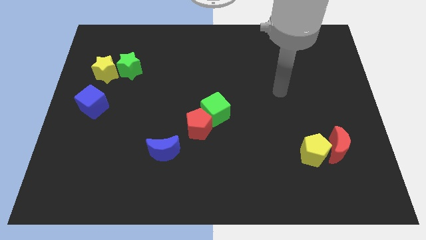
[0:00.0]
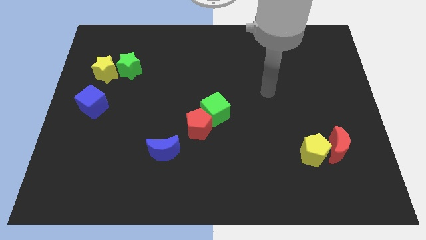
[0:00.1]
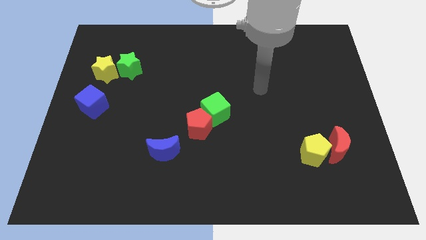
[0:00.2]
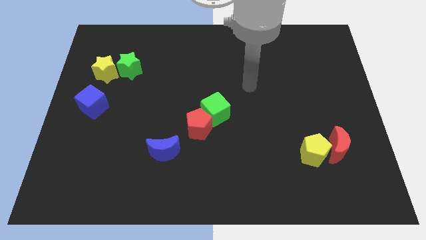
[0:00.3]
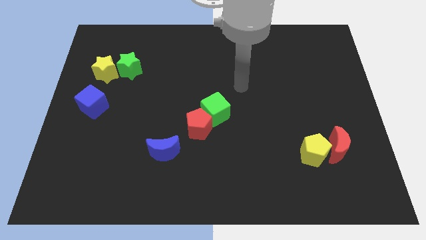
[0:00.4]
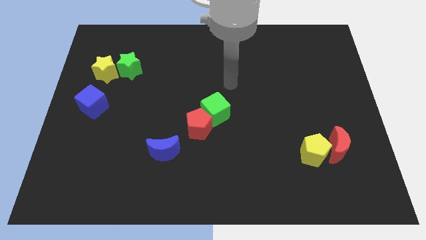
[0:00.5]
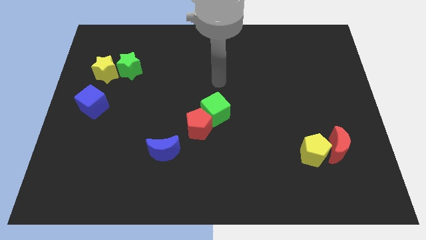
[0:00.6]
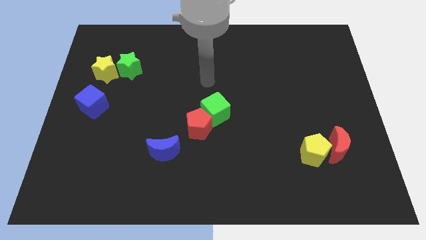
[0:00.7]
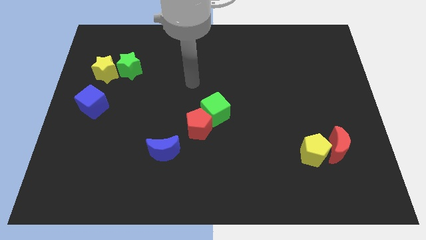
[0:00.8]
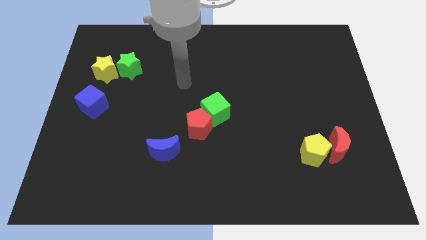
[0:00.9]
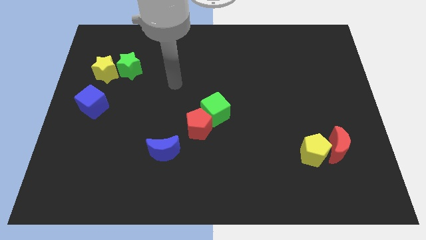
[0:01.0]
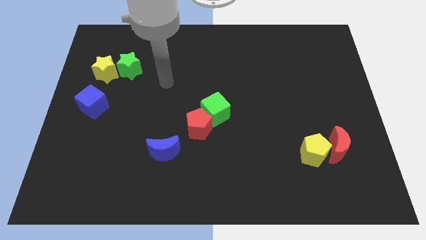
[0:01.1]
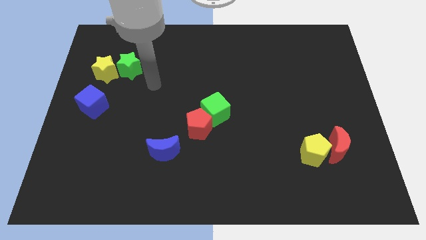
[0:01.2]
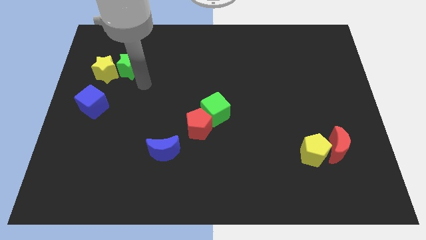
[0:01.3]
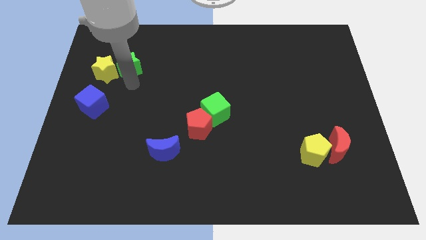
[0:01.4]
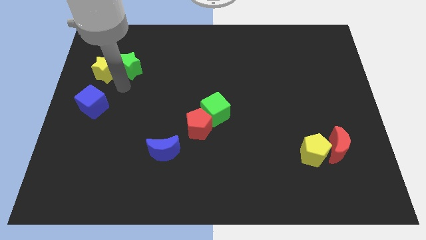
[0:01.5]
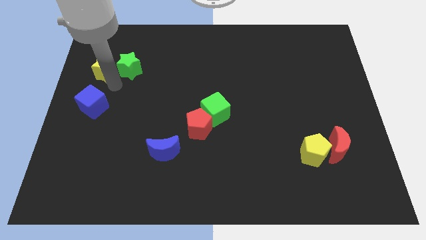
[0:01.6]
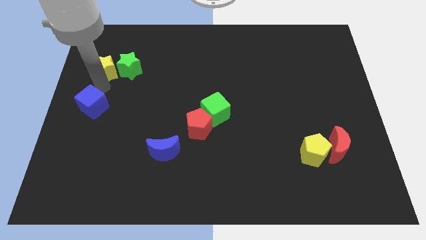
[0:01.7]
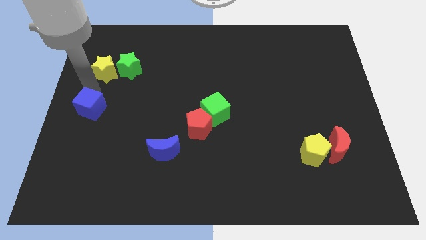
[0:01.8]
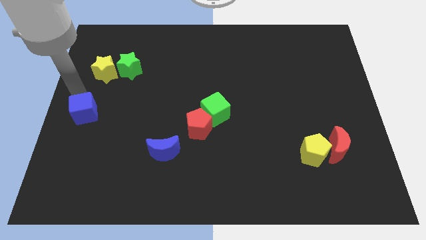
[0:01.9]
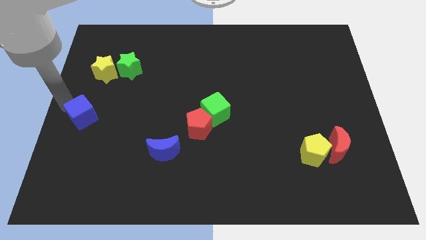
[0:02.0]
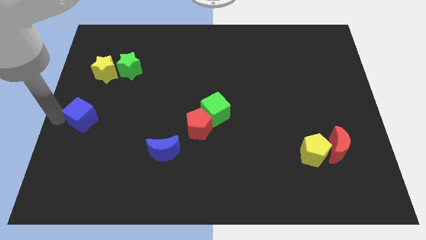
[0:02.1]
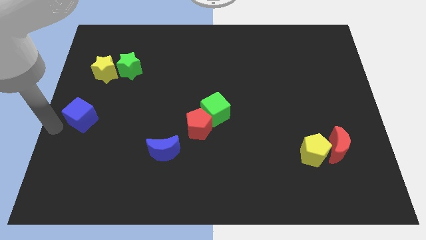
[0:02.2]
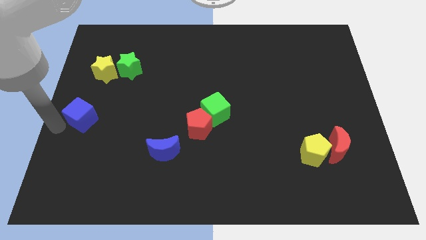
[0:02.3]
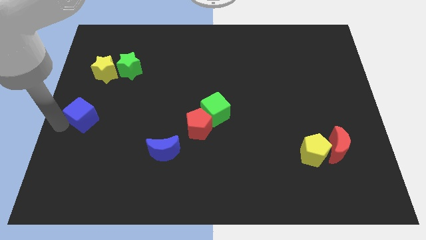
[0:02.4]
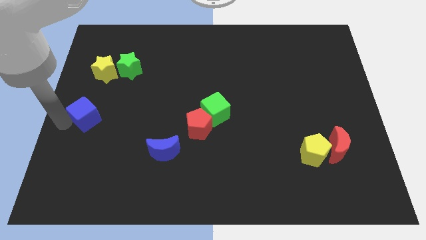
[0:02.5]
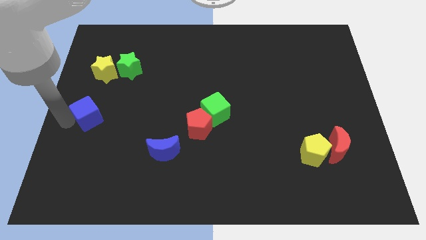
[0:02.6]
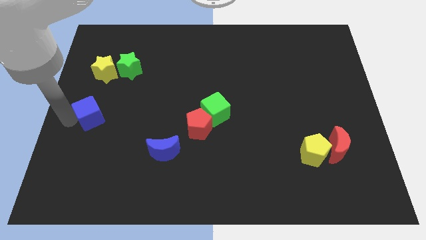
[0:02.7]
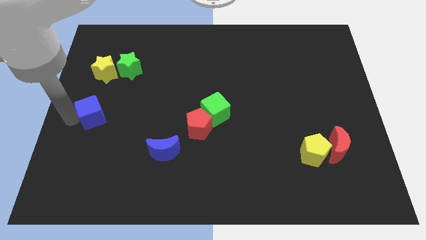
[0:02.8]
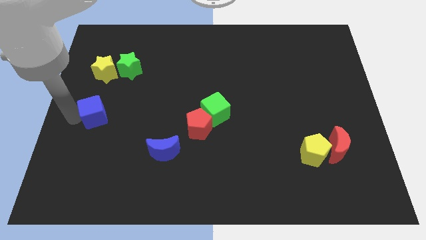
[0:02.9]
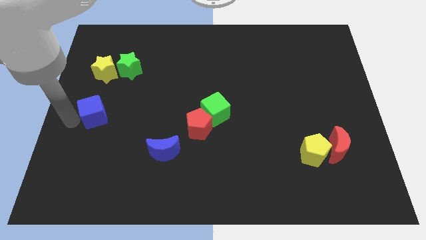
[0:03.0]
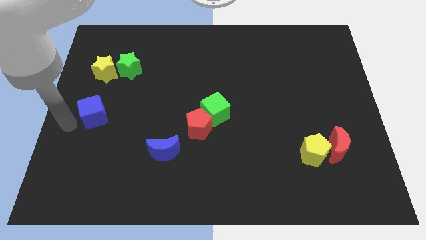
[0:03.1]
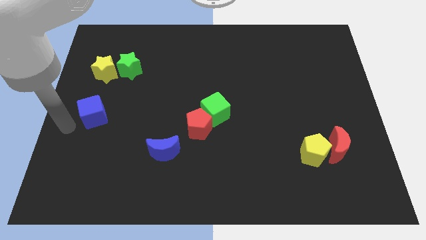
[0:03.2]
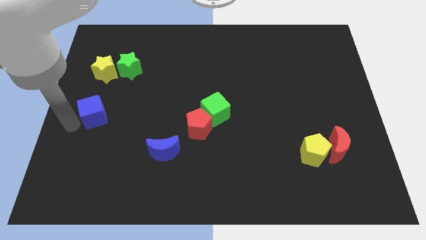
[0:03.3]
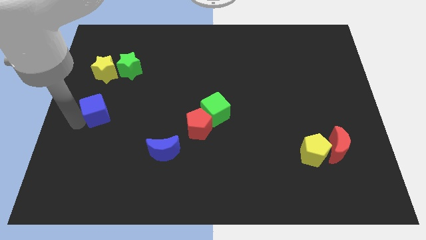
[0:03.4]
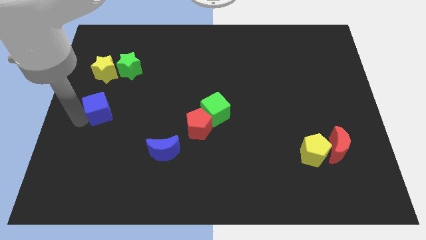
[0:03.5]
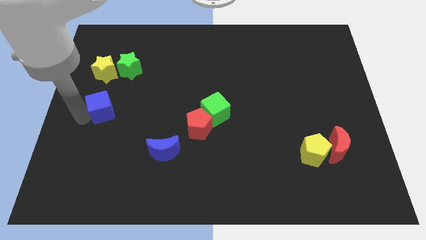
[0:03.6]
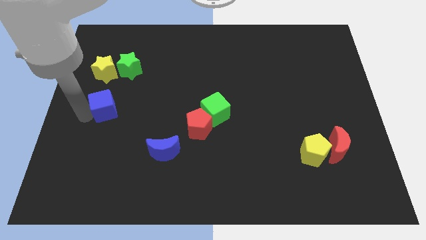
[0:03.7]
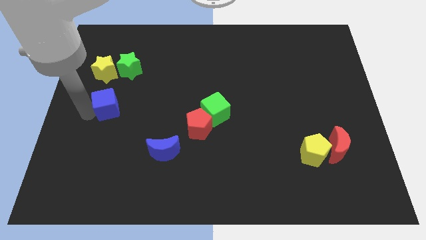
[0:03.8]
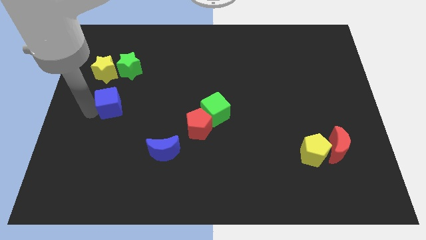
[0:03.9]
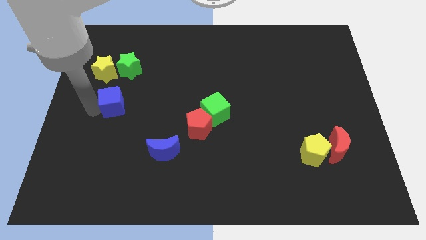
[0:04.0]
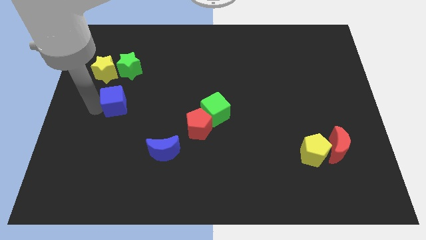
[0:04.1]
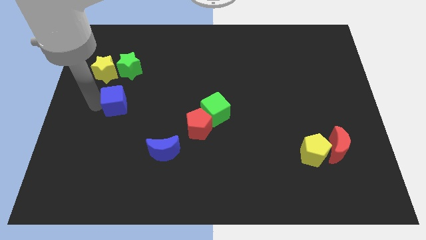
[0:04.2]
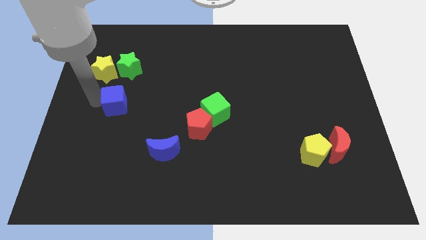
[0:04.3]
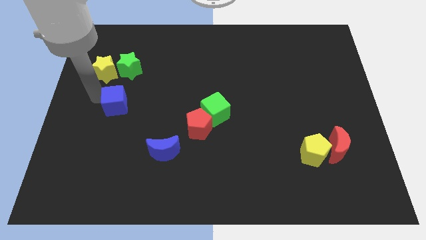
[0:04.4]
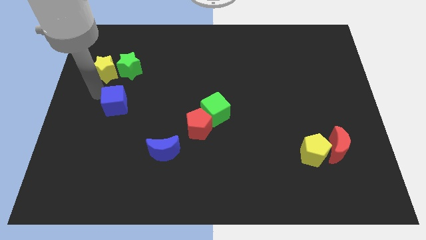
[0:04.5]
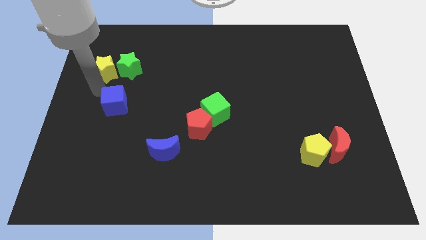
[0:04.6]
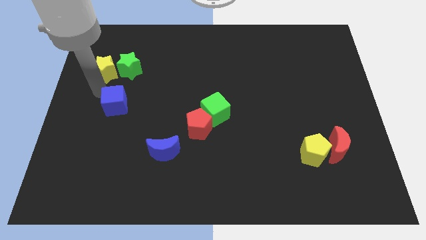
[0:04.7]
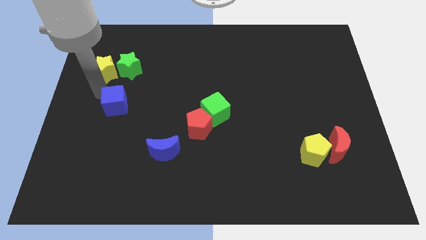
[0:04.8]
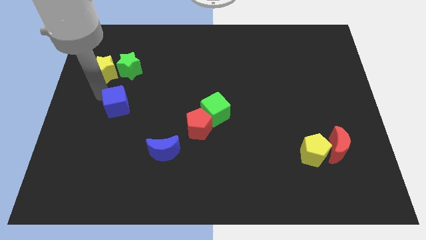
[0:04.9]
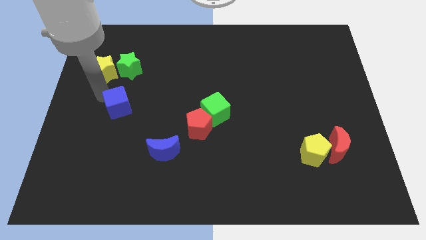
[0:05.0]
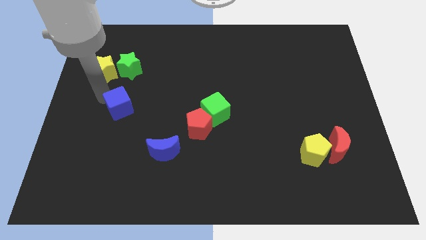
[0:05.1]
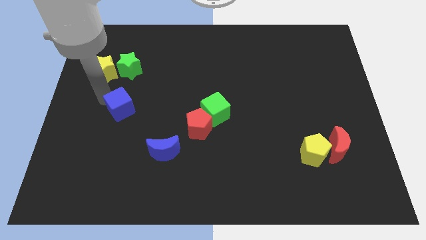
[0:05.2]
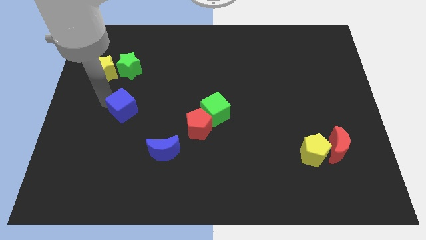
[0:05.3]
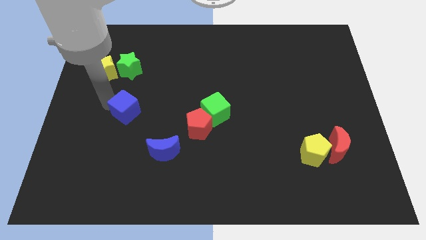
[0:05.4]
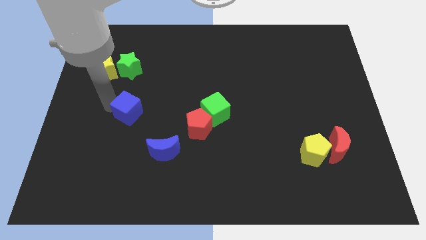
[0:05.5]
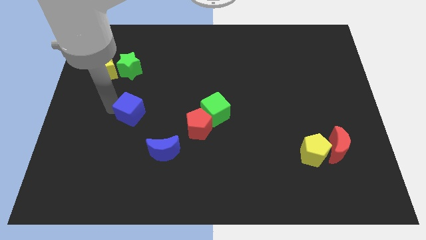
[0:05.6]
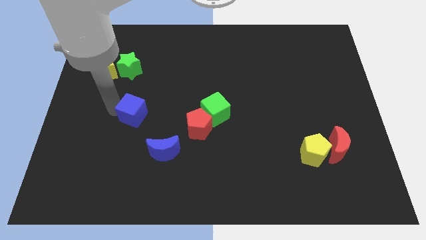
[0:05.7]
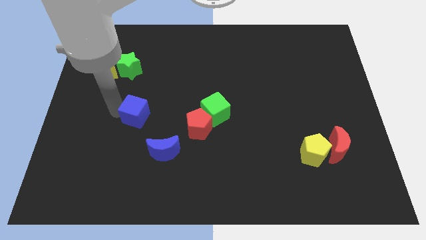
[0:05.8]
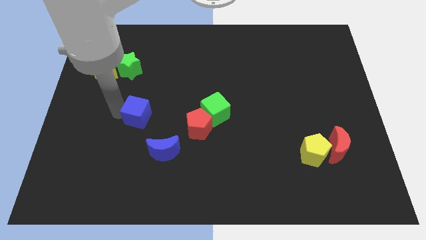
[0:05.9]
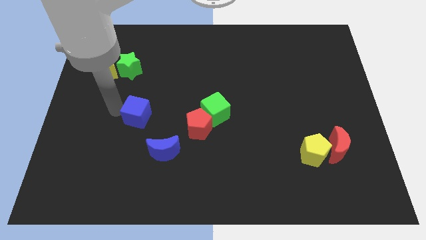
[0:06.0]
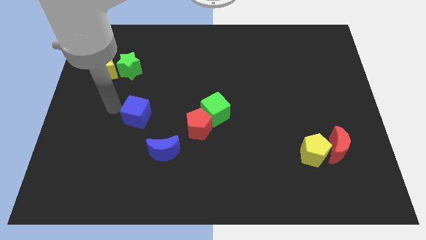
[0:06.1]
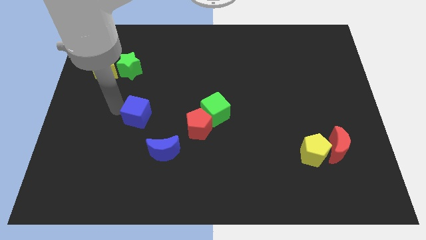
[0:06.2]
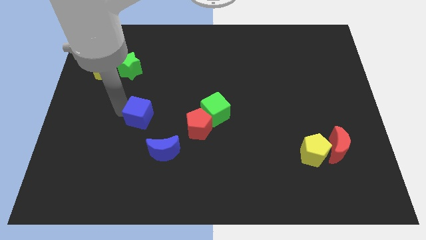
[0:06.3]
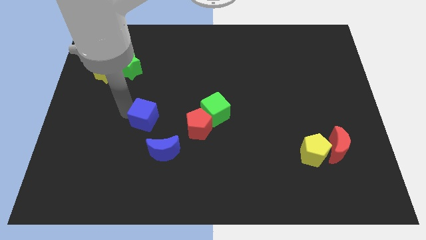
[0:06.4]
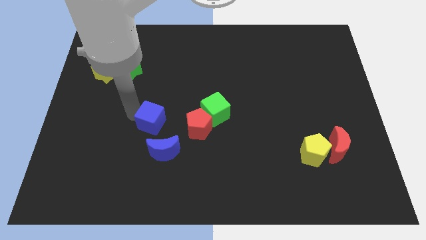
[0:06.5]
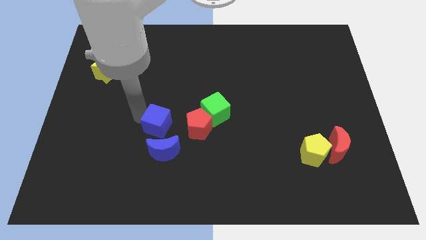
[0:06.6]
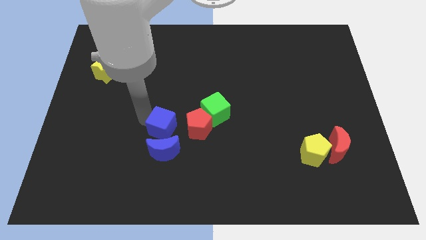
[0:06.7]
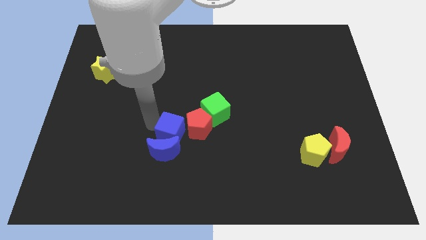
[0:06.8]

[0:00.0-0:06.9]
slide the blue cube close to the red pentagon
